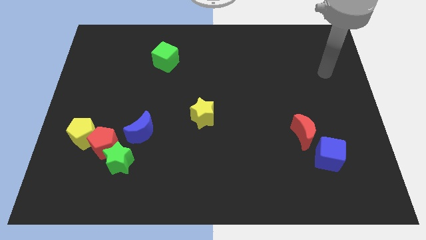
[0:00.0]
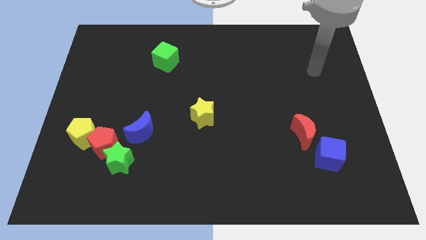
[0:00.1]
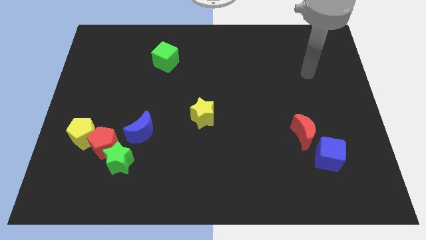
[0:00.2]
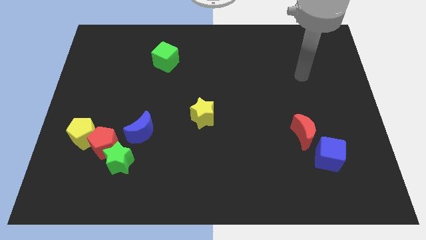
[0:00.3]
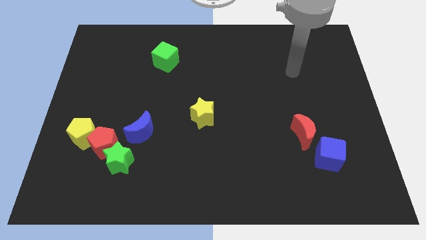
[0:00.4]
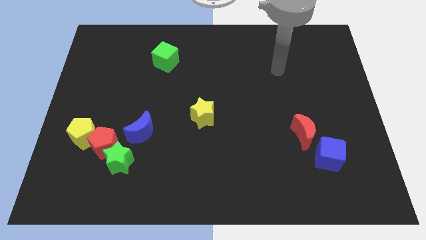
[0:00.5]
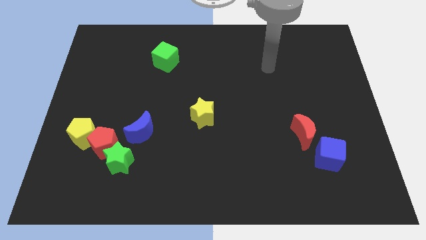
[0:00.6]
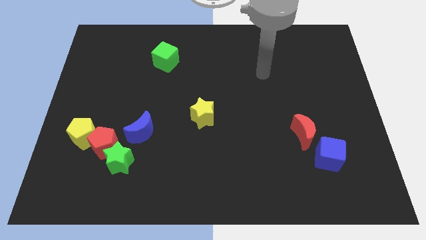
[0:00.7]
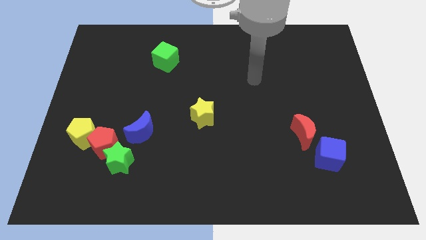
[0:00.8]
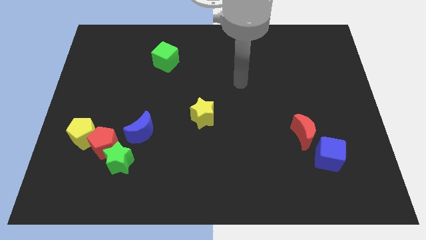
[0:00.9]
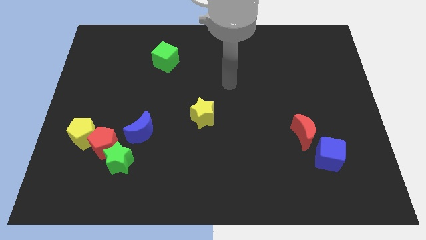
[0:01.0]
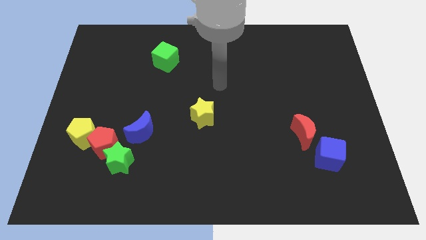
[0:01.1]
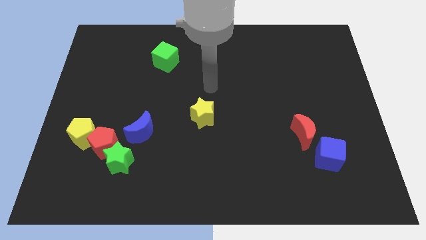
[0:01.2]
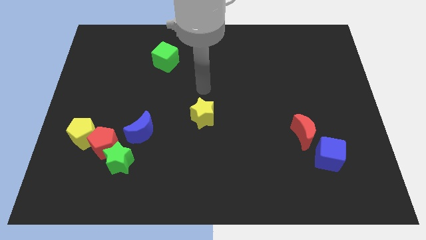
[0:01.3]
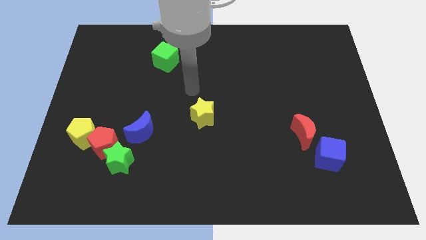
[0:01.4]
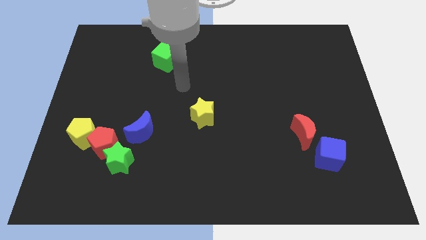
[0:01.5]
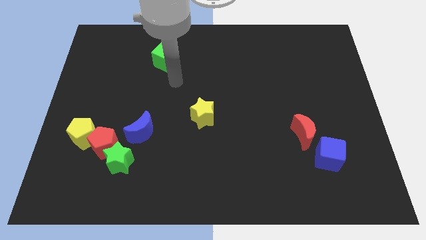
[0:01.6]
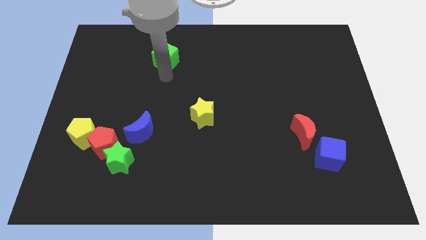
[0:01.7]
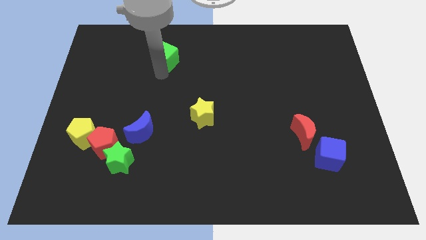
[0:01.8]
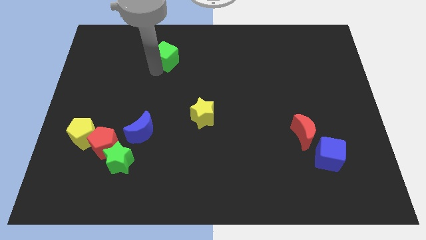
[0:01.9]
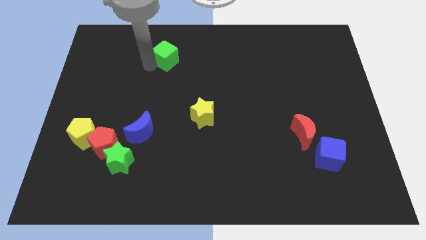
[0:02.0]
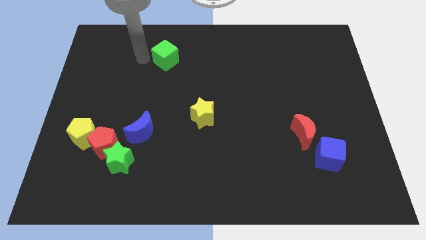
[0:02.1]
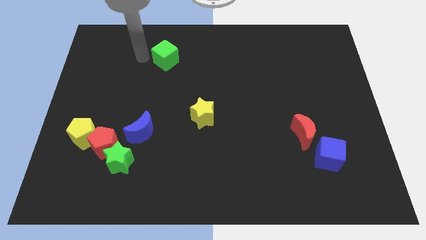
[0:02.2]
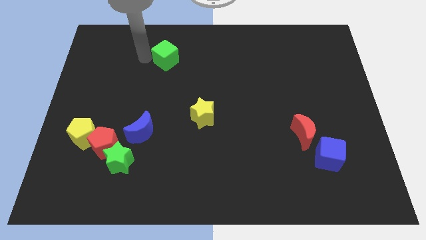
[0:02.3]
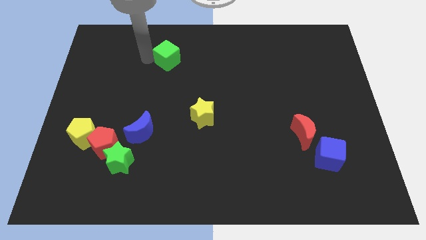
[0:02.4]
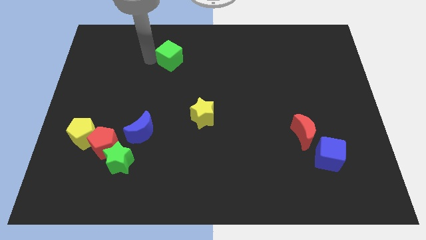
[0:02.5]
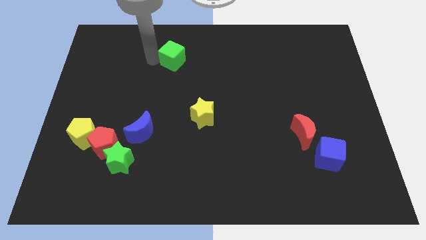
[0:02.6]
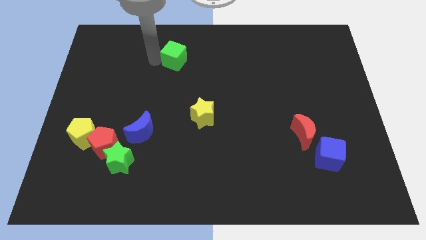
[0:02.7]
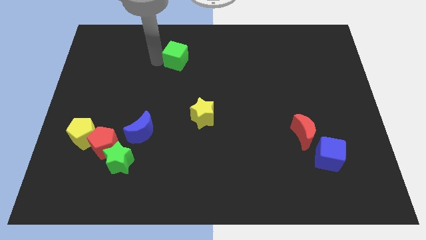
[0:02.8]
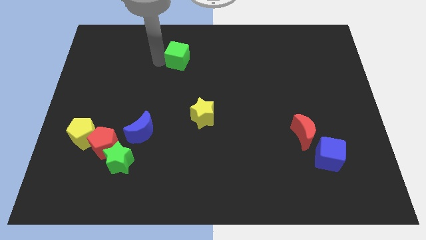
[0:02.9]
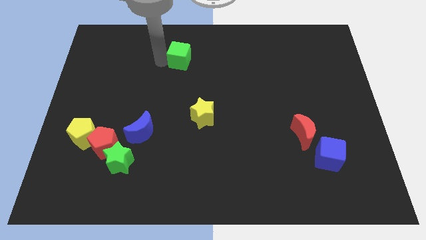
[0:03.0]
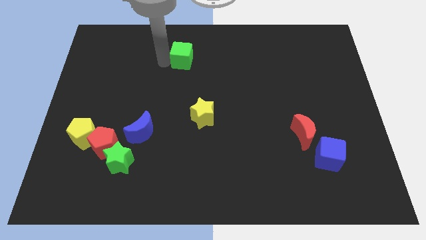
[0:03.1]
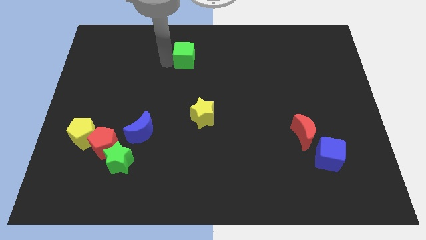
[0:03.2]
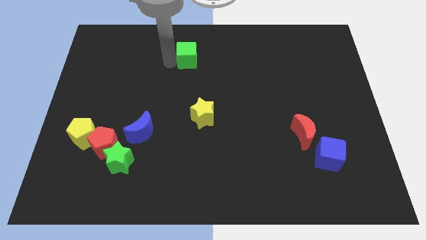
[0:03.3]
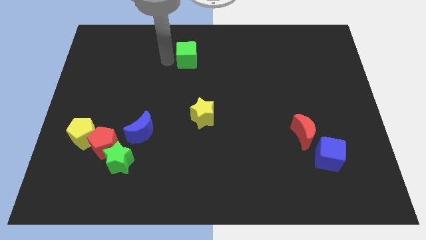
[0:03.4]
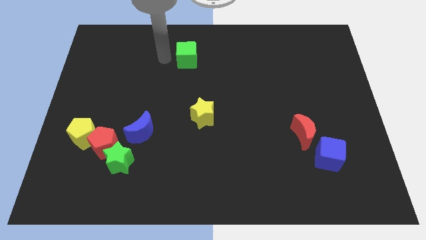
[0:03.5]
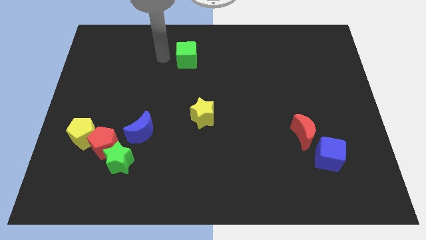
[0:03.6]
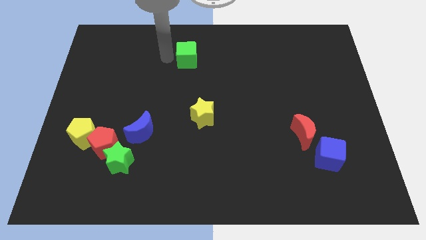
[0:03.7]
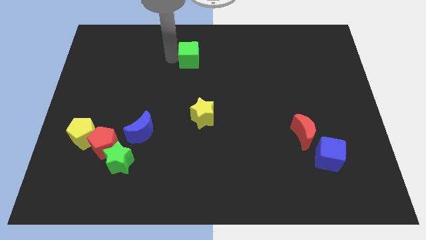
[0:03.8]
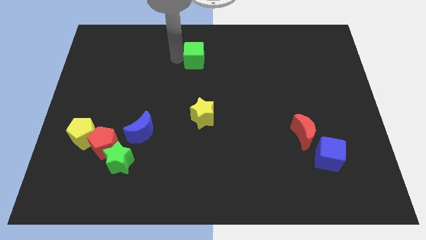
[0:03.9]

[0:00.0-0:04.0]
slide the green cube to the right somewhat

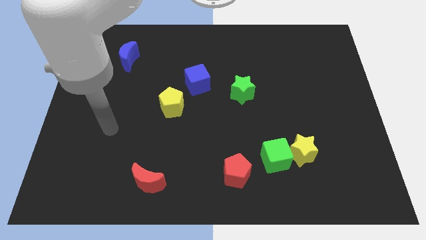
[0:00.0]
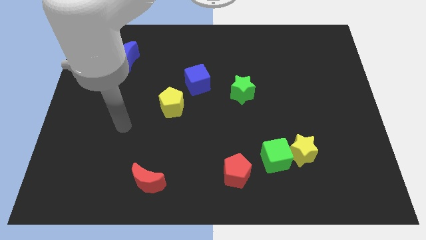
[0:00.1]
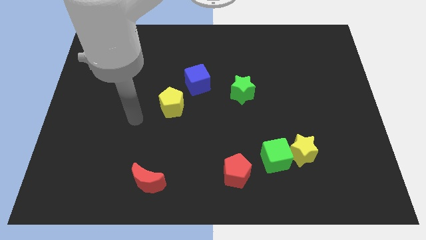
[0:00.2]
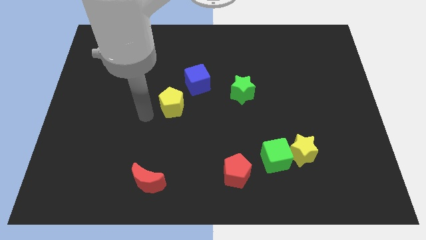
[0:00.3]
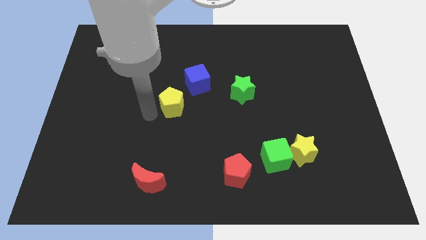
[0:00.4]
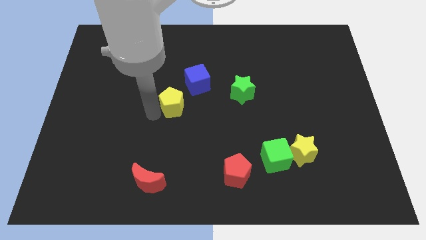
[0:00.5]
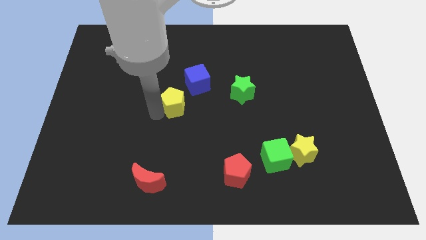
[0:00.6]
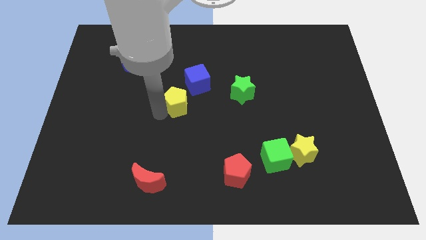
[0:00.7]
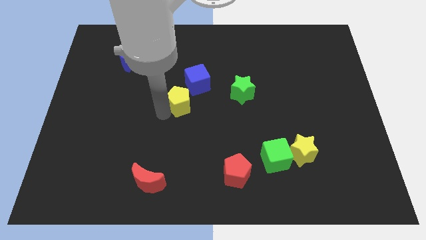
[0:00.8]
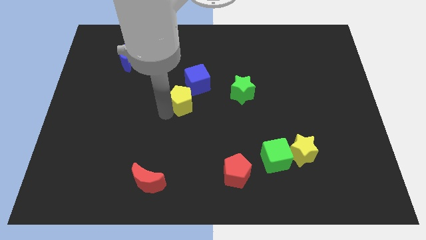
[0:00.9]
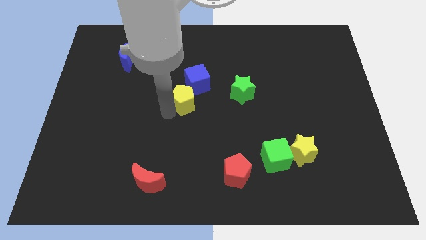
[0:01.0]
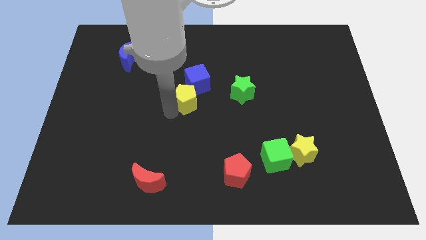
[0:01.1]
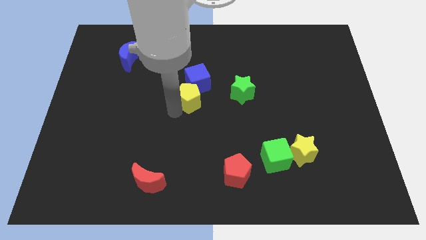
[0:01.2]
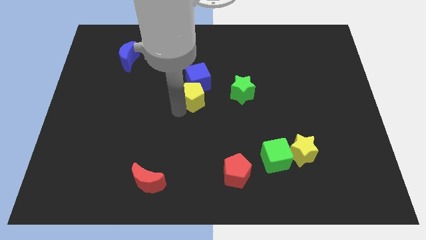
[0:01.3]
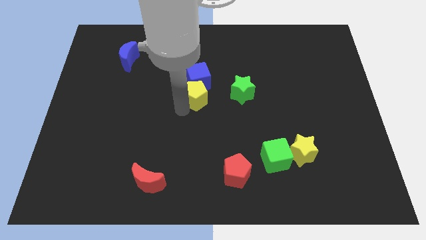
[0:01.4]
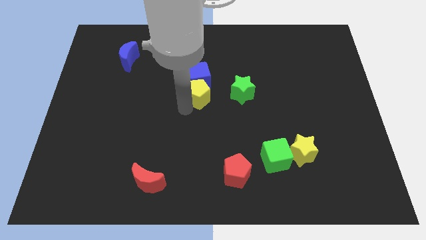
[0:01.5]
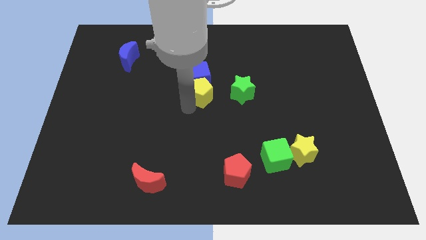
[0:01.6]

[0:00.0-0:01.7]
slightly push the yellow pentagon upwards and to the right diagonally

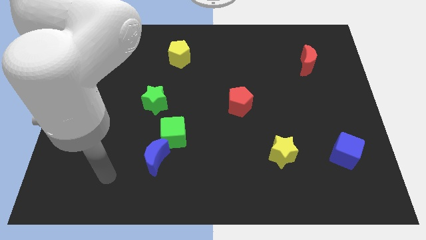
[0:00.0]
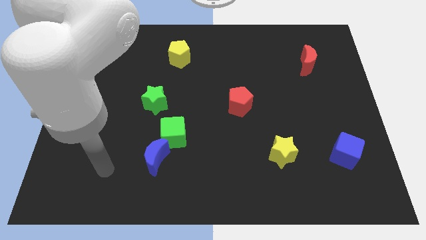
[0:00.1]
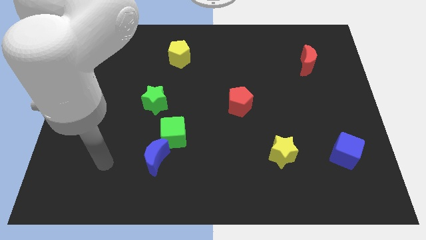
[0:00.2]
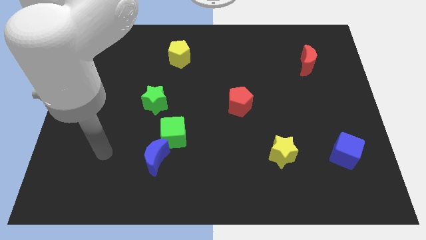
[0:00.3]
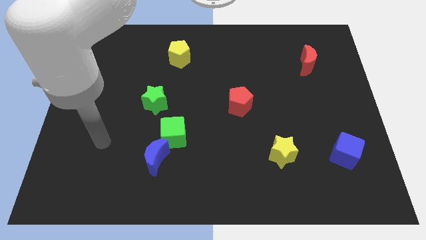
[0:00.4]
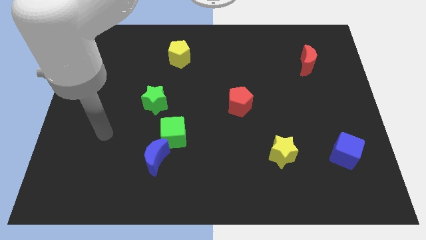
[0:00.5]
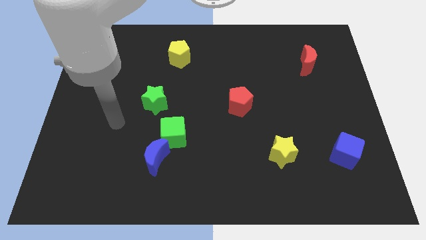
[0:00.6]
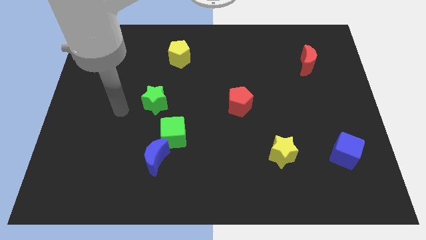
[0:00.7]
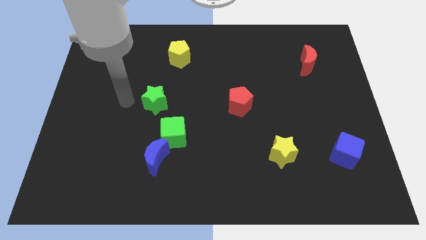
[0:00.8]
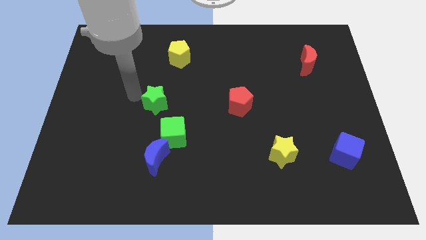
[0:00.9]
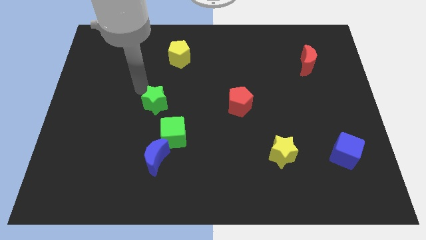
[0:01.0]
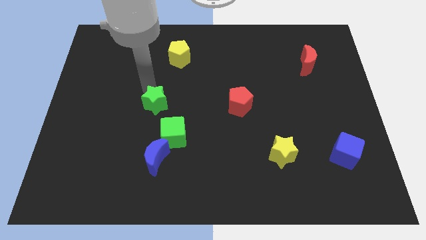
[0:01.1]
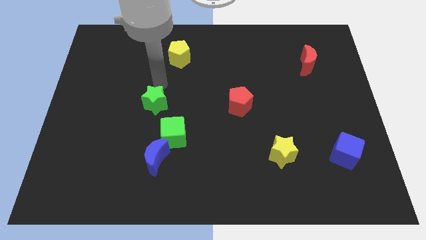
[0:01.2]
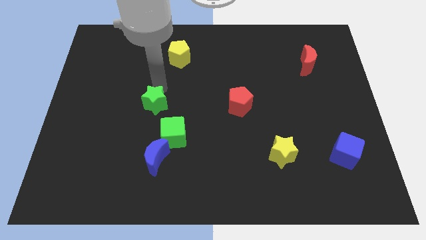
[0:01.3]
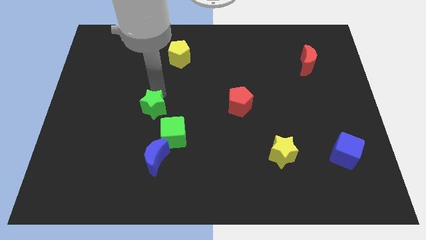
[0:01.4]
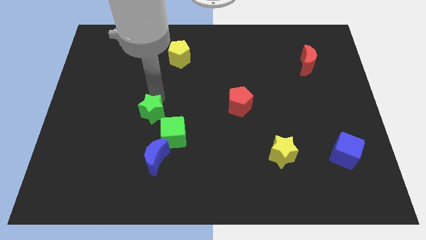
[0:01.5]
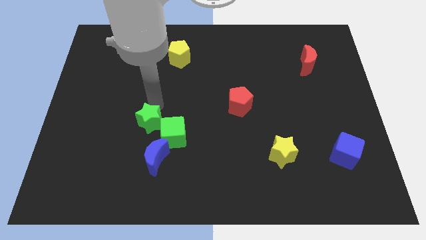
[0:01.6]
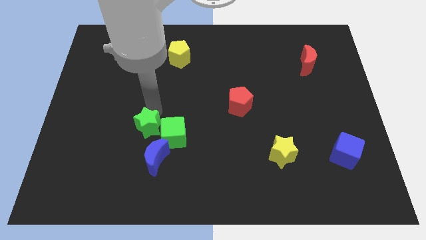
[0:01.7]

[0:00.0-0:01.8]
move the green star downwards somewhat

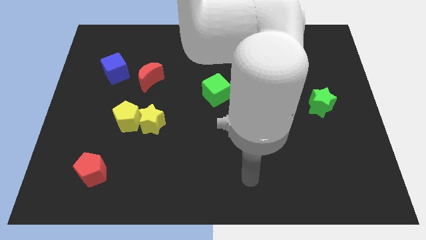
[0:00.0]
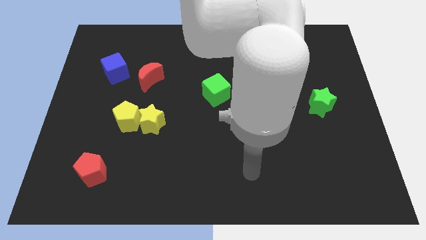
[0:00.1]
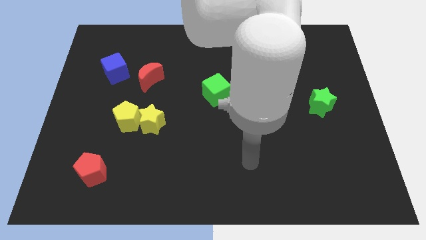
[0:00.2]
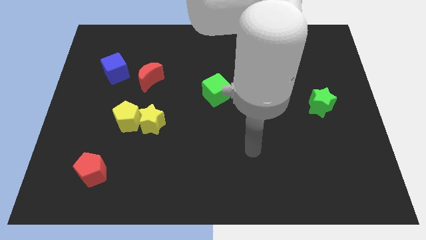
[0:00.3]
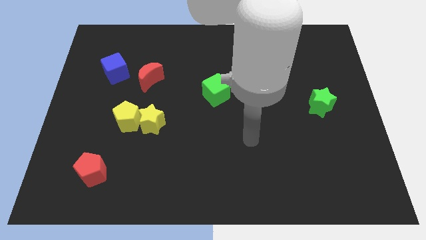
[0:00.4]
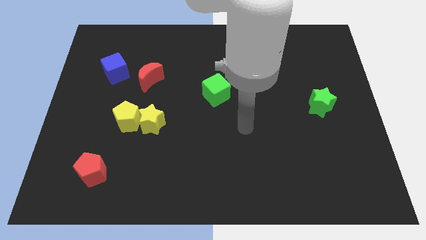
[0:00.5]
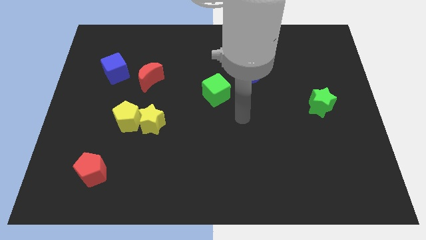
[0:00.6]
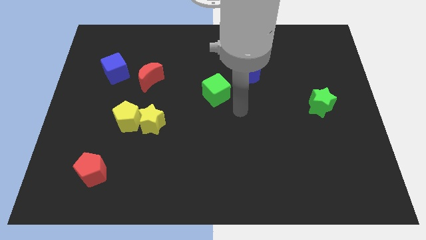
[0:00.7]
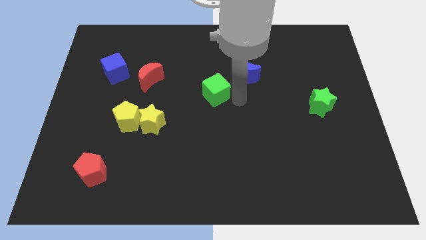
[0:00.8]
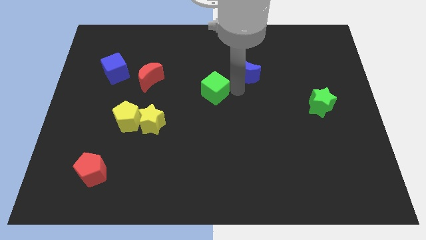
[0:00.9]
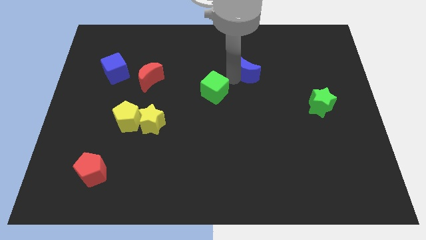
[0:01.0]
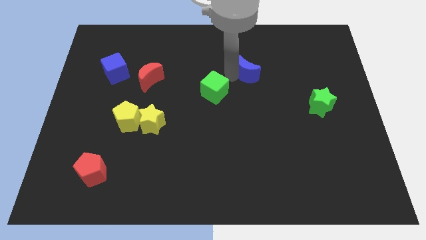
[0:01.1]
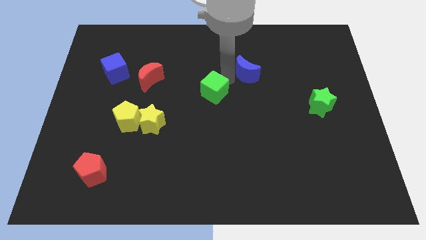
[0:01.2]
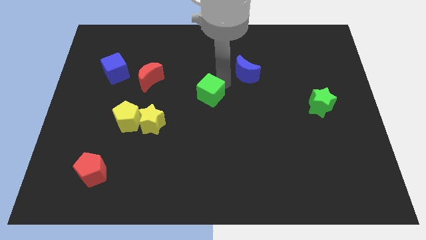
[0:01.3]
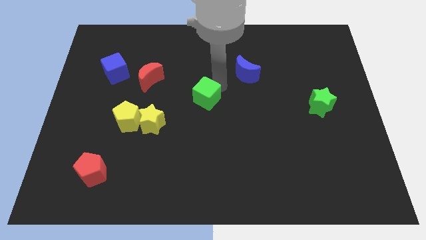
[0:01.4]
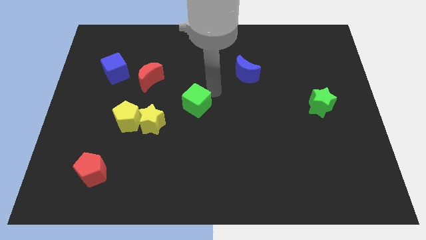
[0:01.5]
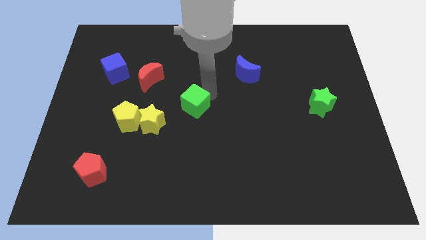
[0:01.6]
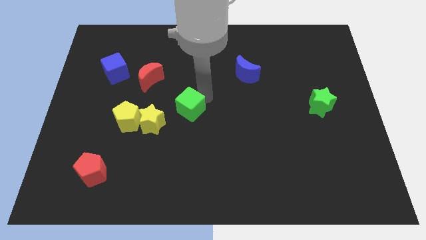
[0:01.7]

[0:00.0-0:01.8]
slightly push the green cube down and to the left
